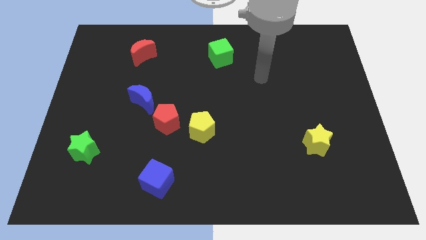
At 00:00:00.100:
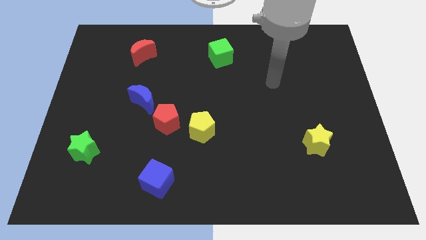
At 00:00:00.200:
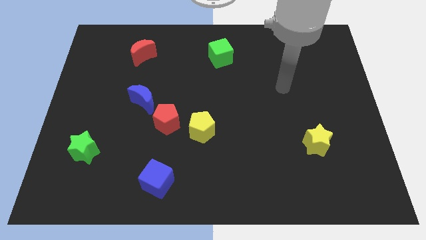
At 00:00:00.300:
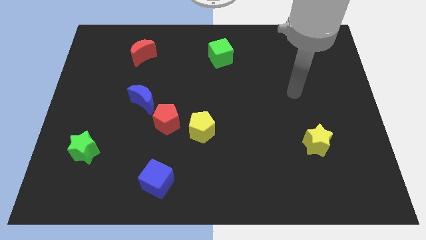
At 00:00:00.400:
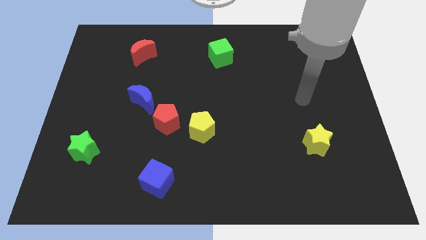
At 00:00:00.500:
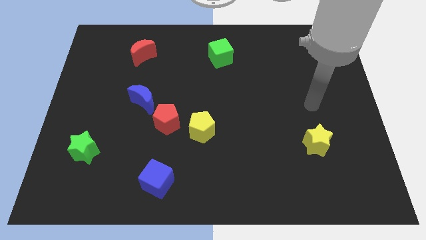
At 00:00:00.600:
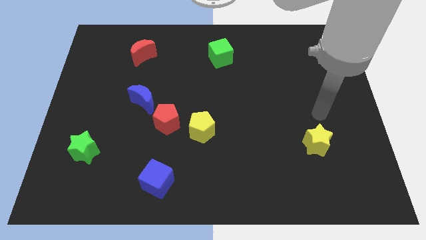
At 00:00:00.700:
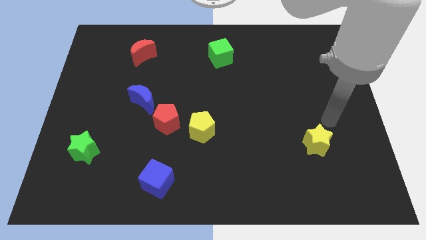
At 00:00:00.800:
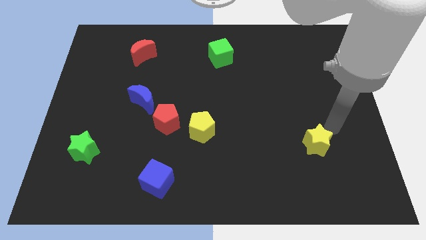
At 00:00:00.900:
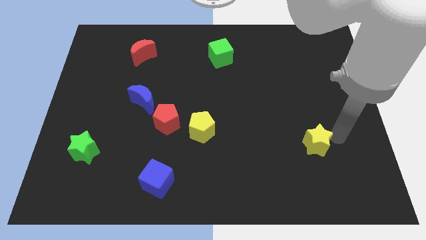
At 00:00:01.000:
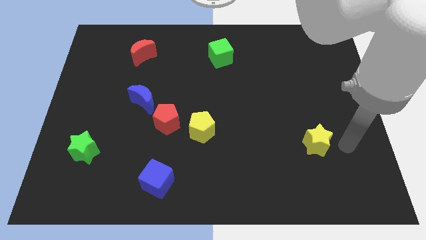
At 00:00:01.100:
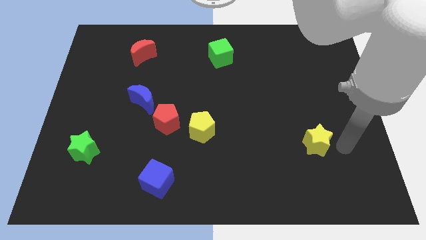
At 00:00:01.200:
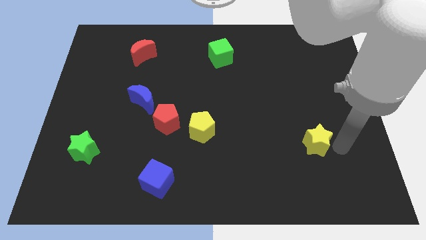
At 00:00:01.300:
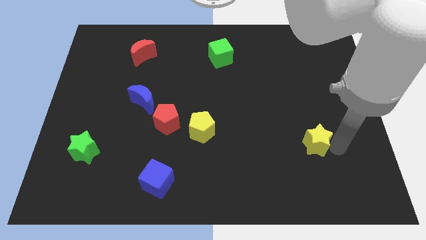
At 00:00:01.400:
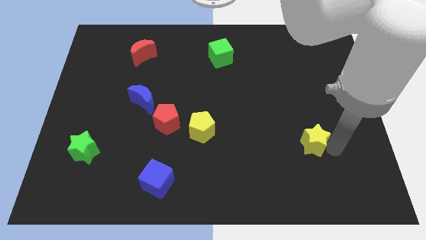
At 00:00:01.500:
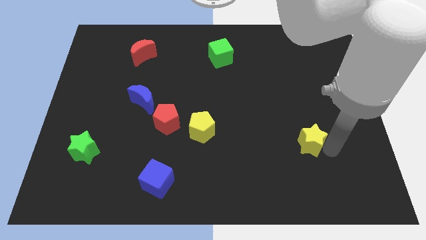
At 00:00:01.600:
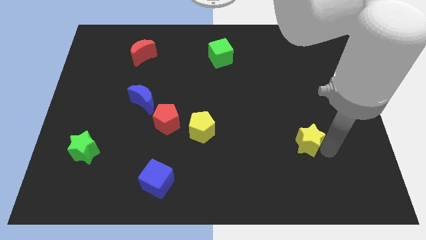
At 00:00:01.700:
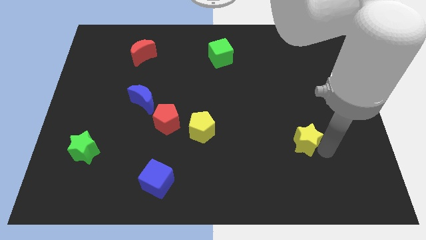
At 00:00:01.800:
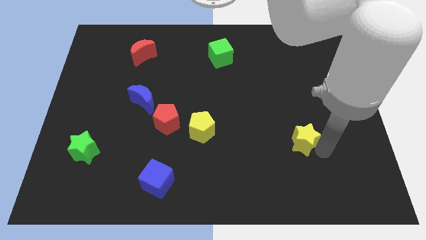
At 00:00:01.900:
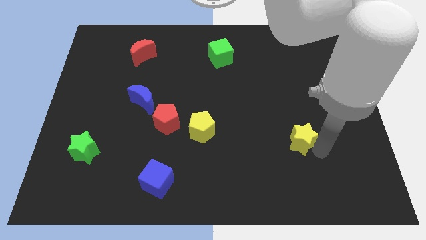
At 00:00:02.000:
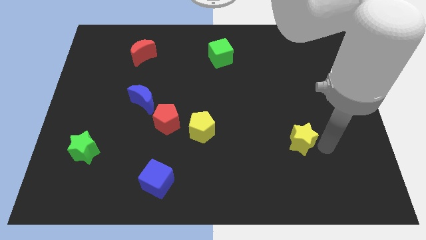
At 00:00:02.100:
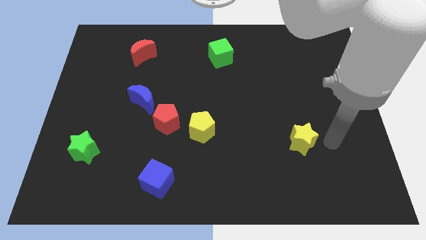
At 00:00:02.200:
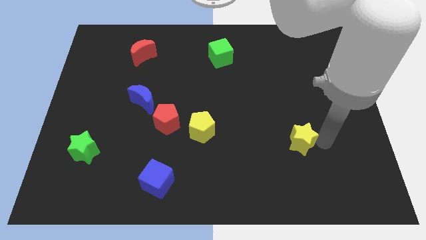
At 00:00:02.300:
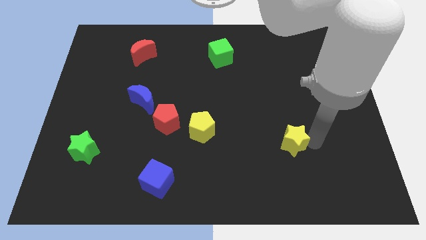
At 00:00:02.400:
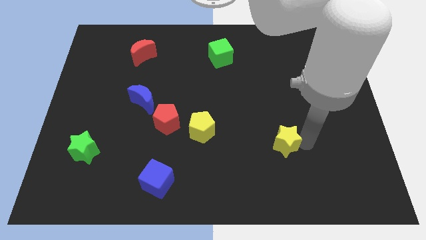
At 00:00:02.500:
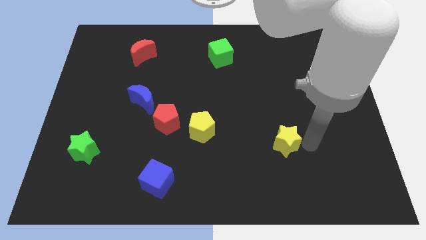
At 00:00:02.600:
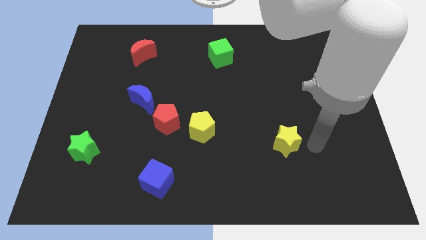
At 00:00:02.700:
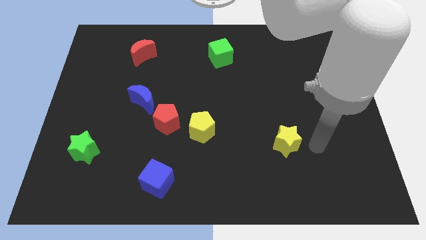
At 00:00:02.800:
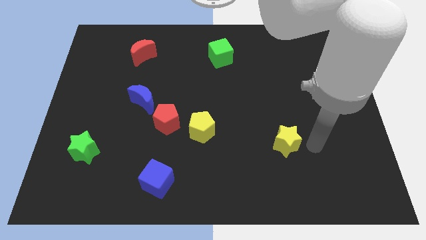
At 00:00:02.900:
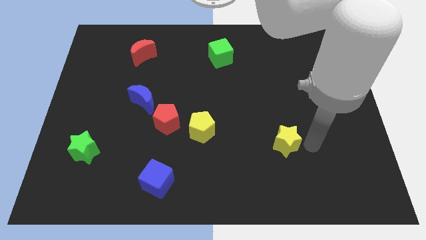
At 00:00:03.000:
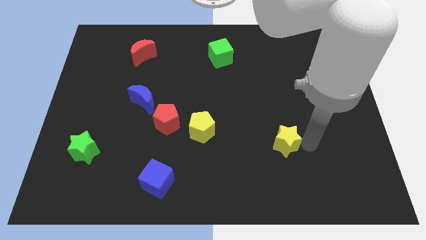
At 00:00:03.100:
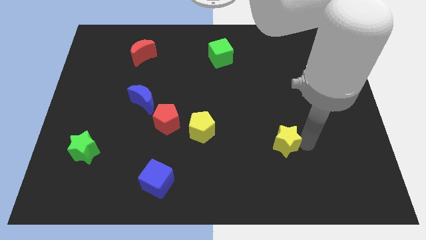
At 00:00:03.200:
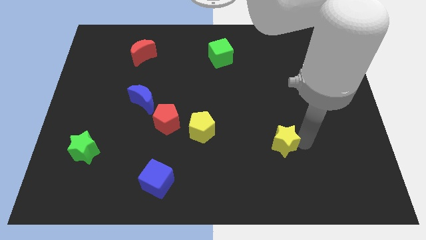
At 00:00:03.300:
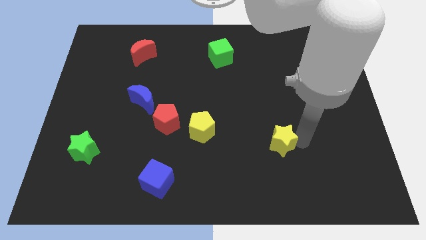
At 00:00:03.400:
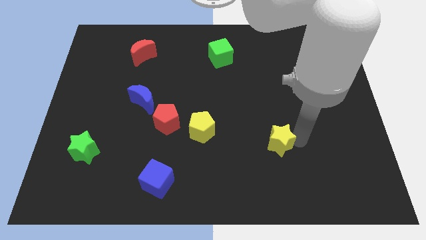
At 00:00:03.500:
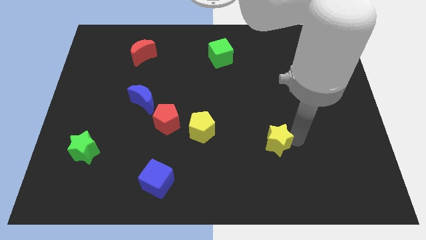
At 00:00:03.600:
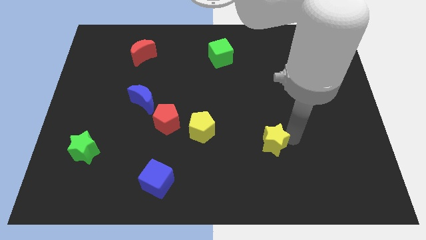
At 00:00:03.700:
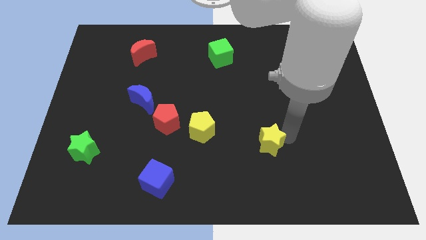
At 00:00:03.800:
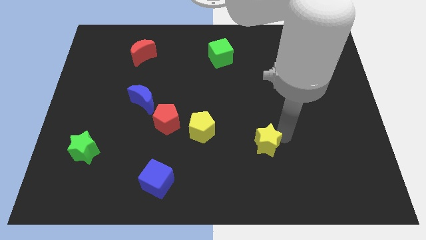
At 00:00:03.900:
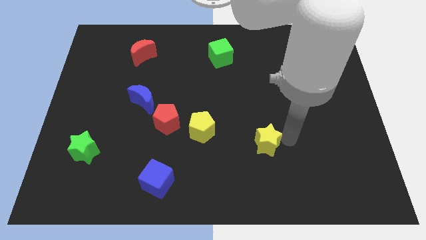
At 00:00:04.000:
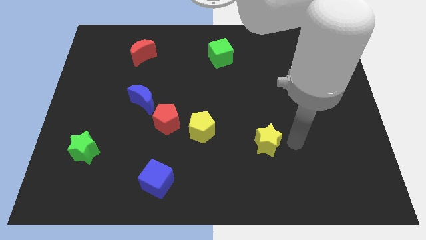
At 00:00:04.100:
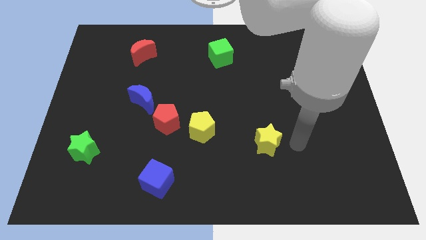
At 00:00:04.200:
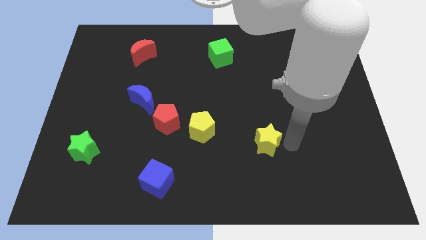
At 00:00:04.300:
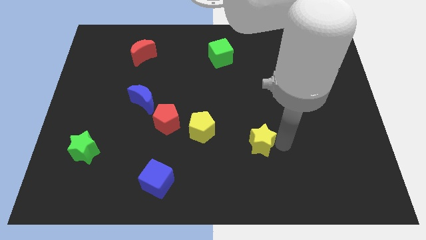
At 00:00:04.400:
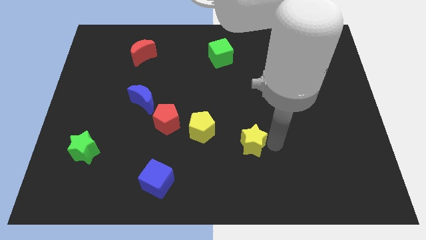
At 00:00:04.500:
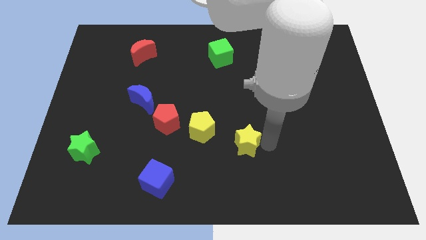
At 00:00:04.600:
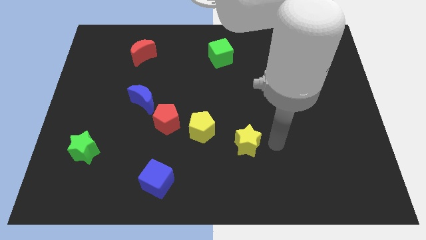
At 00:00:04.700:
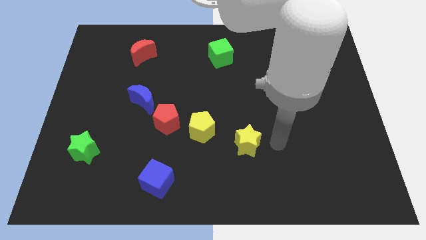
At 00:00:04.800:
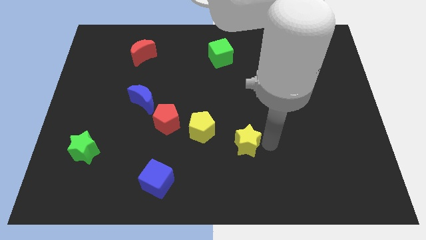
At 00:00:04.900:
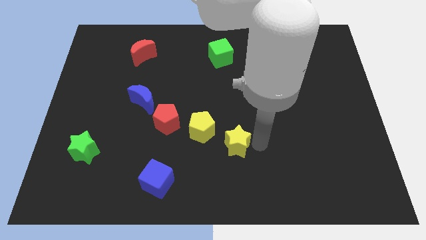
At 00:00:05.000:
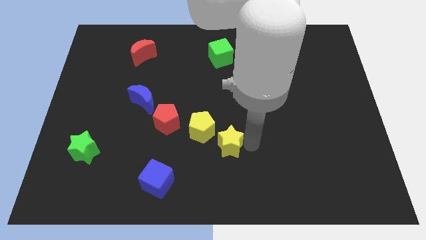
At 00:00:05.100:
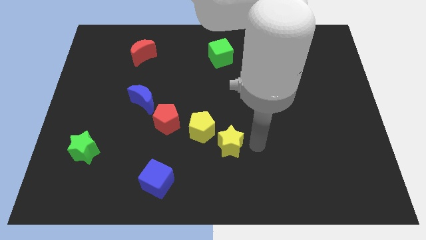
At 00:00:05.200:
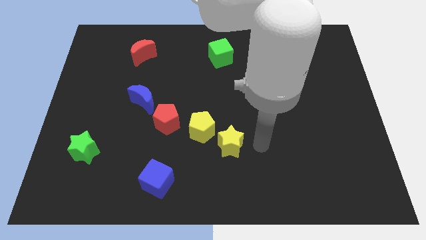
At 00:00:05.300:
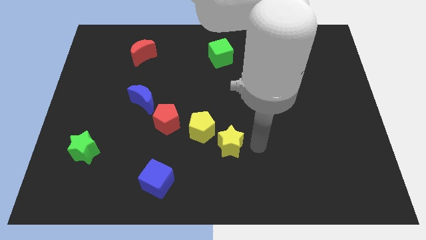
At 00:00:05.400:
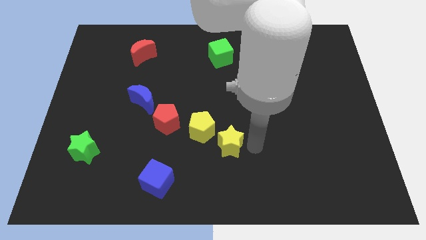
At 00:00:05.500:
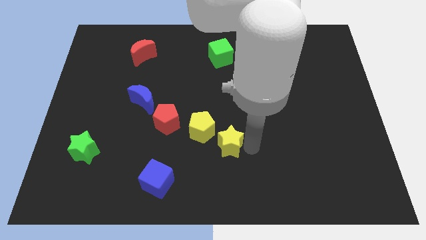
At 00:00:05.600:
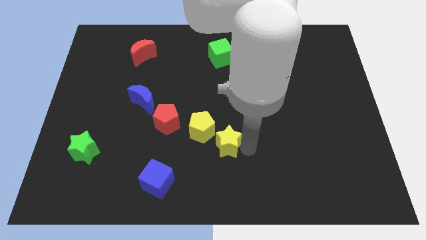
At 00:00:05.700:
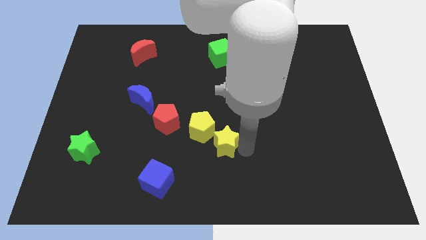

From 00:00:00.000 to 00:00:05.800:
push the yellow star to the left

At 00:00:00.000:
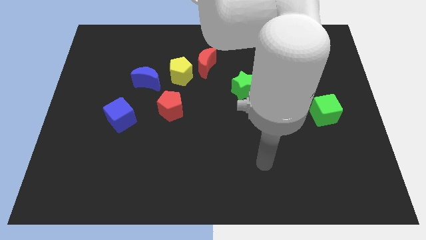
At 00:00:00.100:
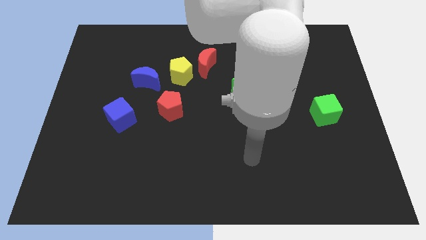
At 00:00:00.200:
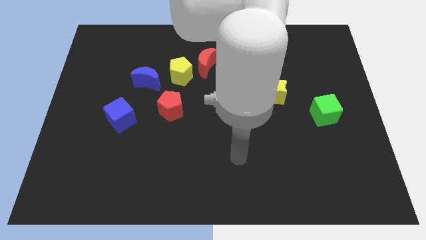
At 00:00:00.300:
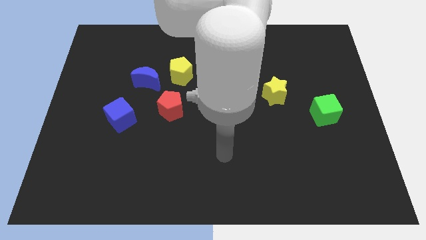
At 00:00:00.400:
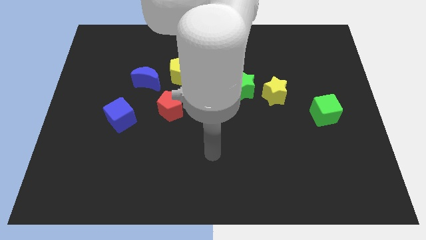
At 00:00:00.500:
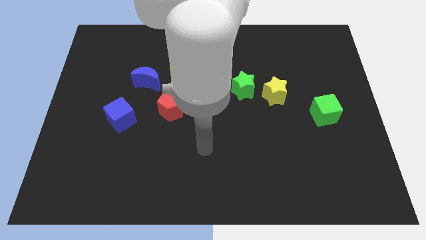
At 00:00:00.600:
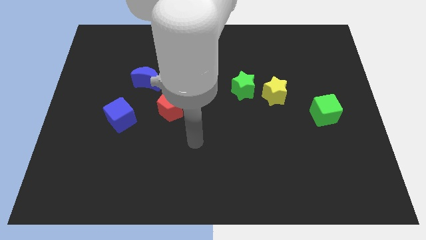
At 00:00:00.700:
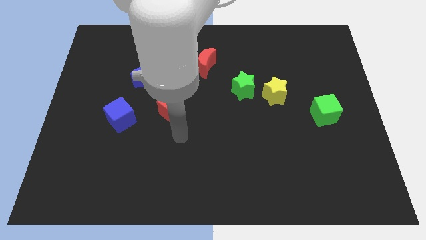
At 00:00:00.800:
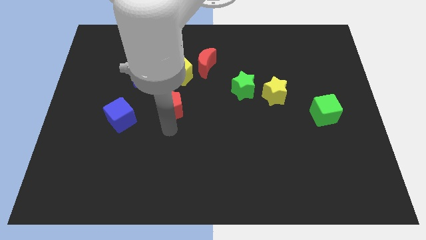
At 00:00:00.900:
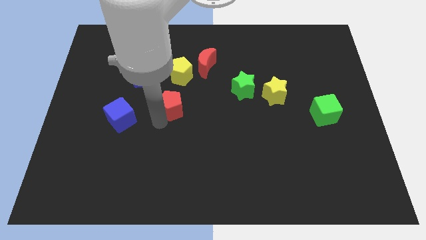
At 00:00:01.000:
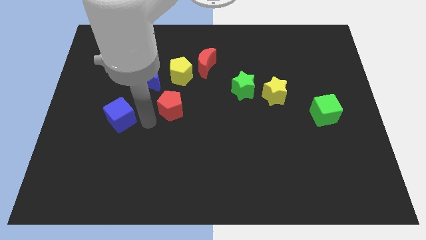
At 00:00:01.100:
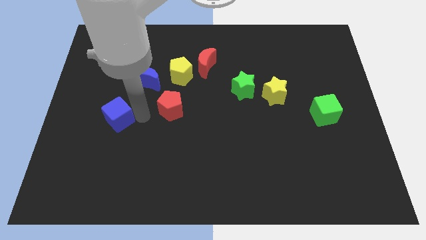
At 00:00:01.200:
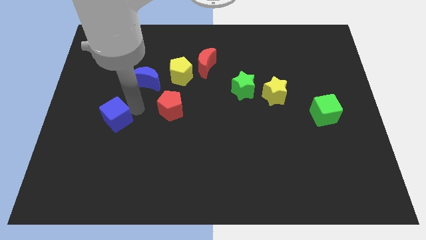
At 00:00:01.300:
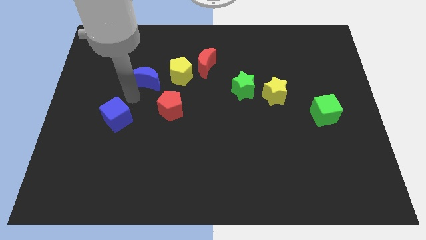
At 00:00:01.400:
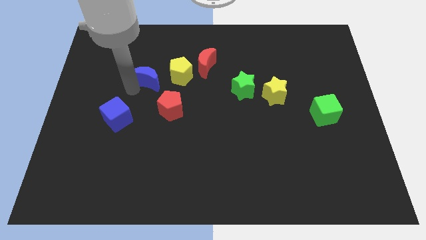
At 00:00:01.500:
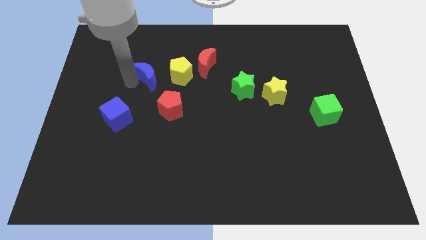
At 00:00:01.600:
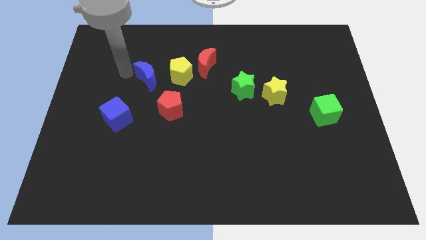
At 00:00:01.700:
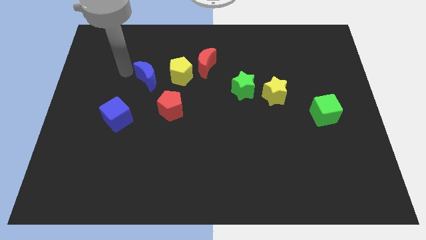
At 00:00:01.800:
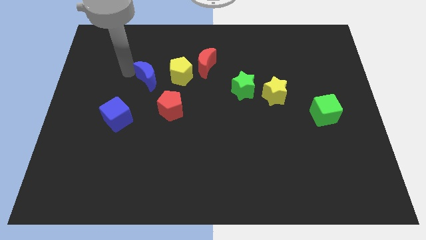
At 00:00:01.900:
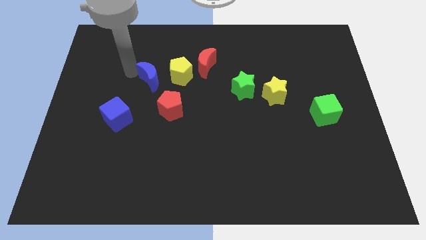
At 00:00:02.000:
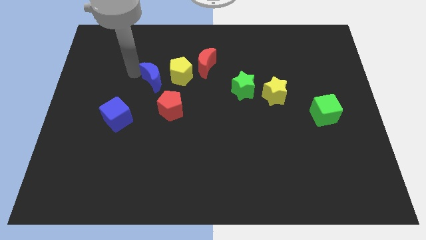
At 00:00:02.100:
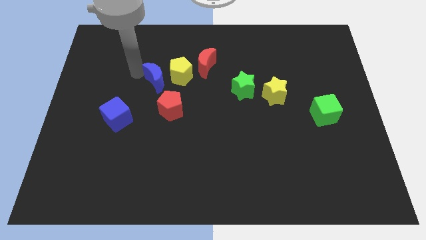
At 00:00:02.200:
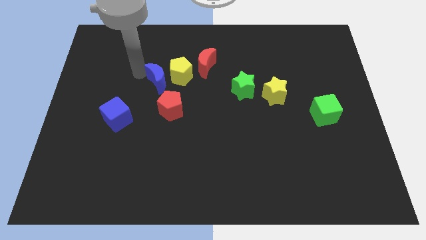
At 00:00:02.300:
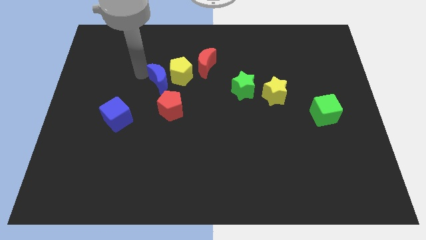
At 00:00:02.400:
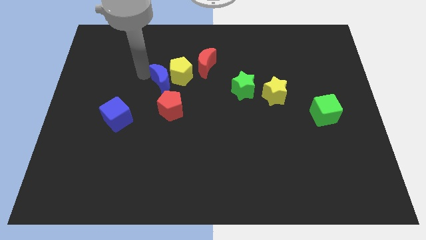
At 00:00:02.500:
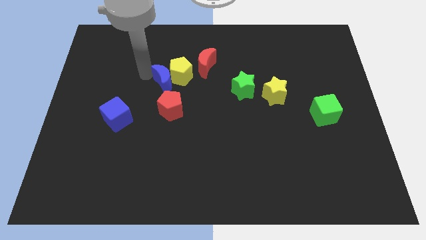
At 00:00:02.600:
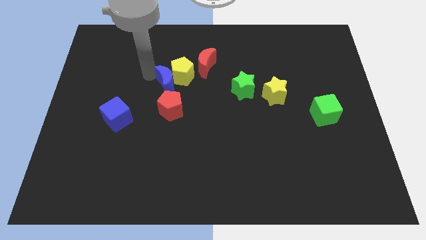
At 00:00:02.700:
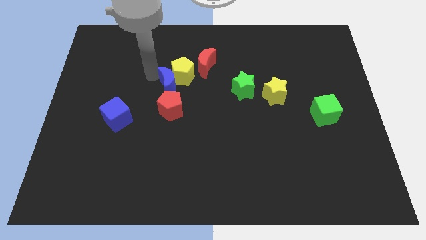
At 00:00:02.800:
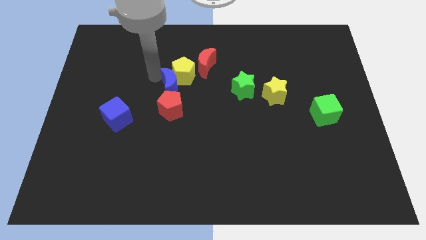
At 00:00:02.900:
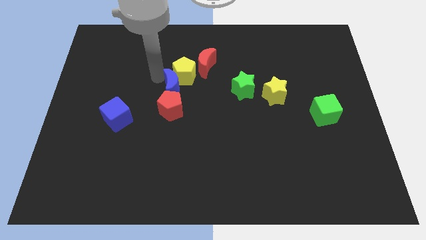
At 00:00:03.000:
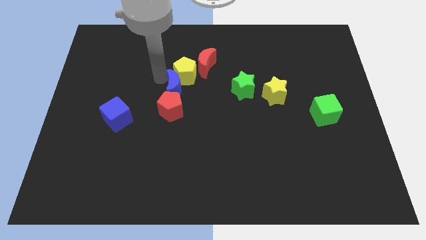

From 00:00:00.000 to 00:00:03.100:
slightly push the blue moon to the right
